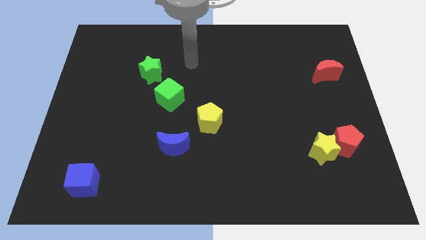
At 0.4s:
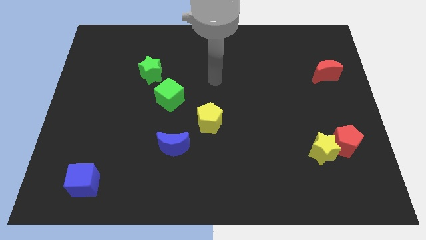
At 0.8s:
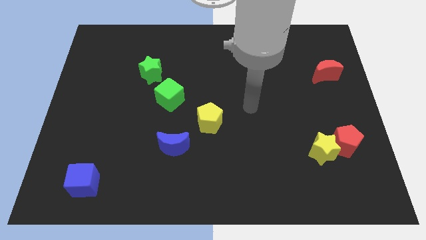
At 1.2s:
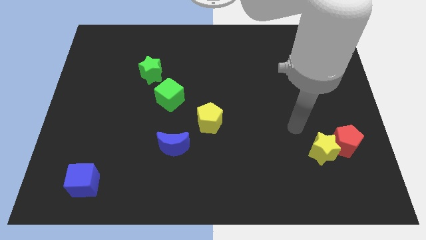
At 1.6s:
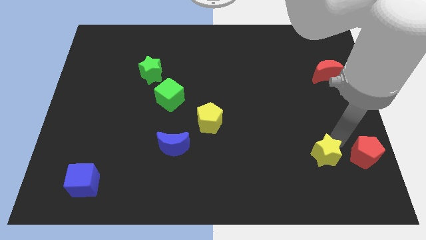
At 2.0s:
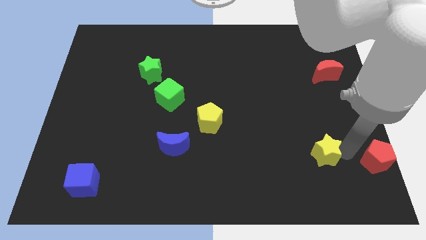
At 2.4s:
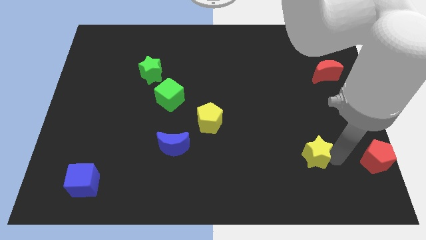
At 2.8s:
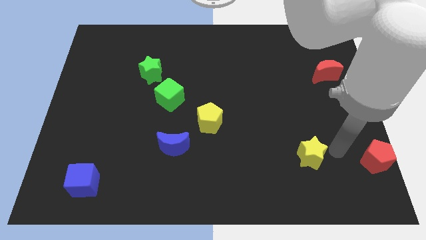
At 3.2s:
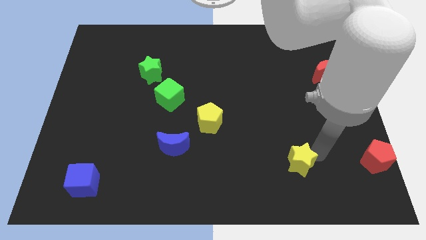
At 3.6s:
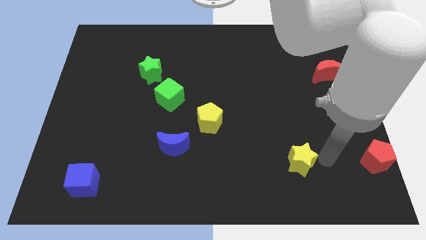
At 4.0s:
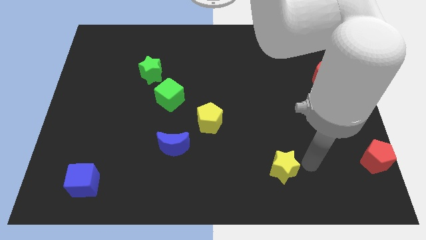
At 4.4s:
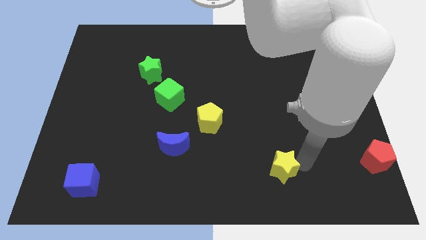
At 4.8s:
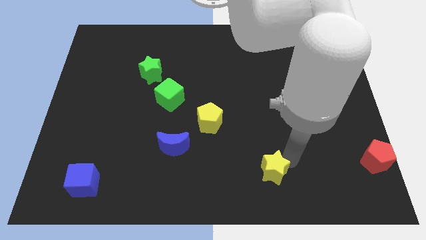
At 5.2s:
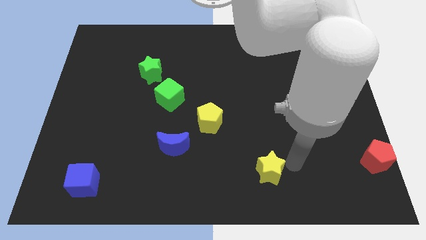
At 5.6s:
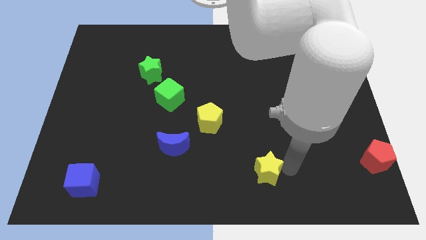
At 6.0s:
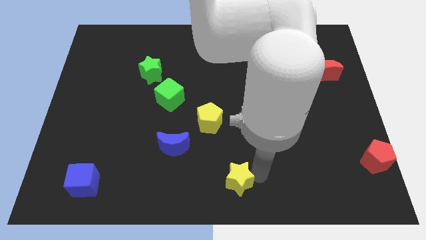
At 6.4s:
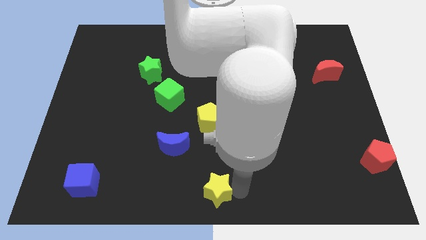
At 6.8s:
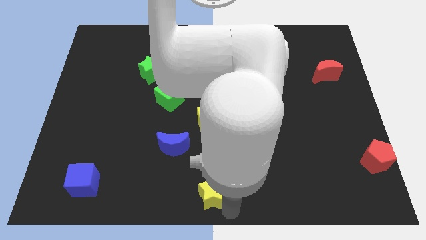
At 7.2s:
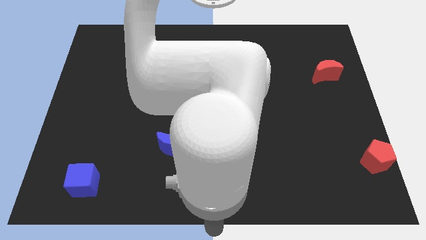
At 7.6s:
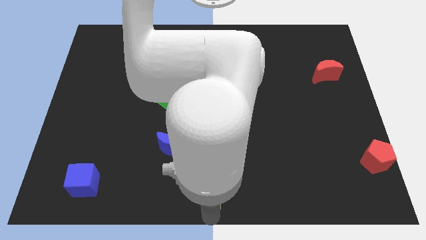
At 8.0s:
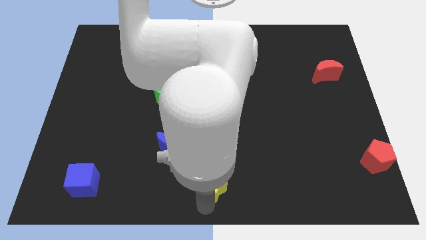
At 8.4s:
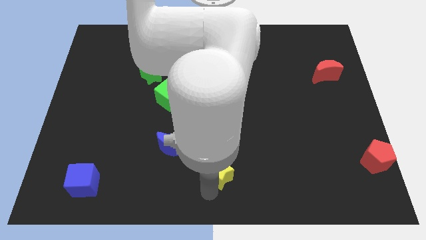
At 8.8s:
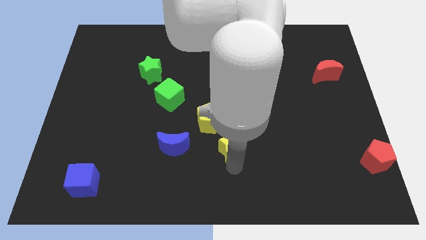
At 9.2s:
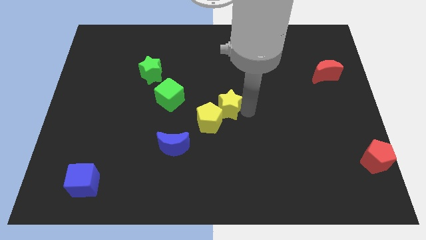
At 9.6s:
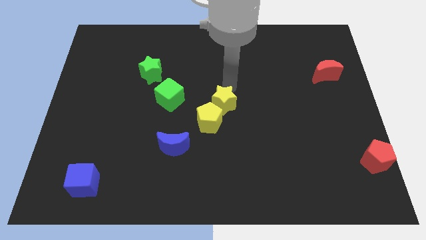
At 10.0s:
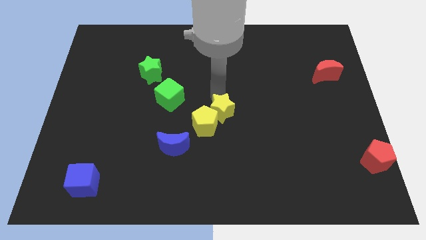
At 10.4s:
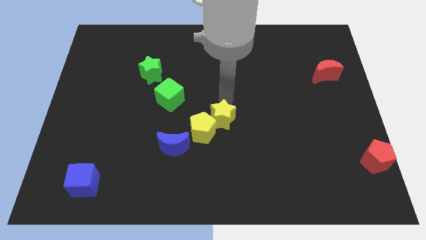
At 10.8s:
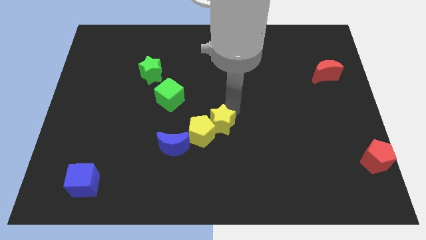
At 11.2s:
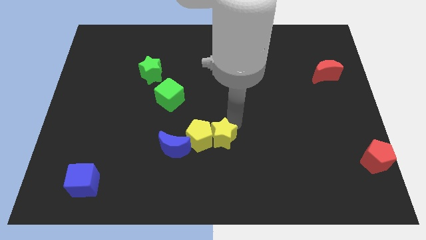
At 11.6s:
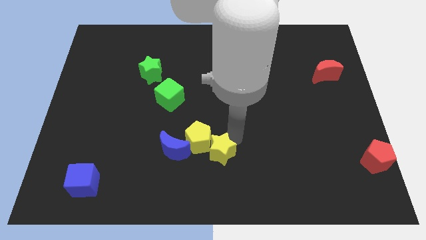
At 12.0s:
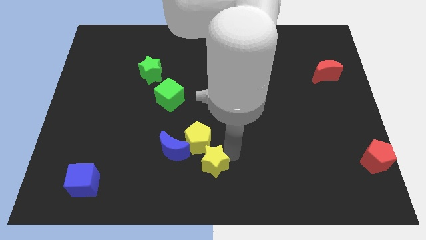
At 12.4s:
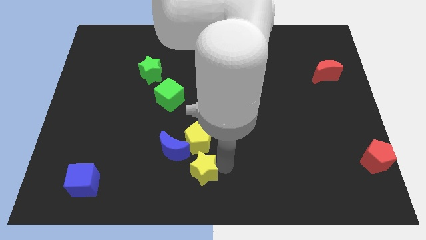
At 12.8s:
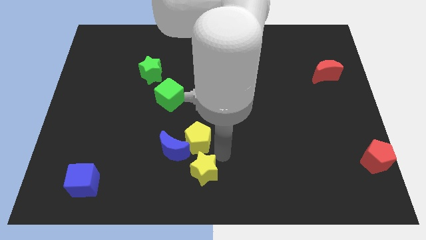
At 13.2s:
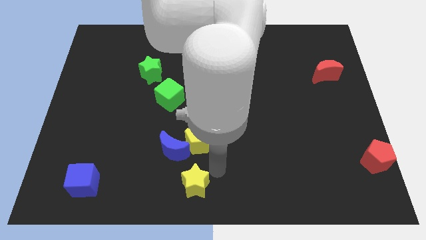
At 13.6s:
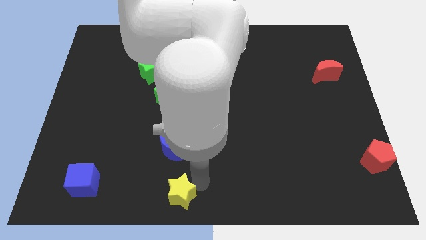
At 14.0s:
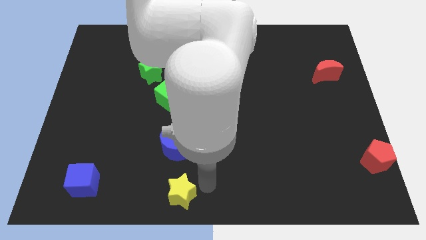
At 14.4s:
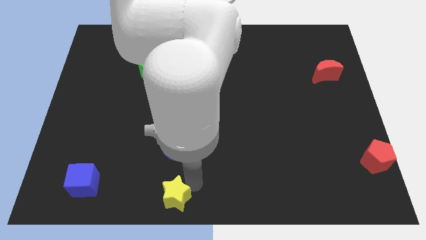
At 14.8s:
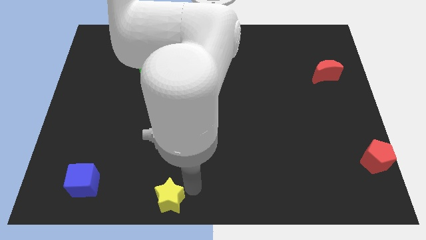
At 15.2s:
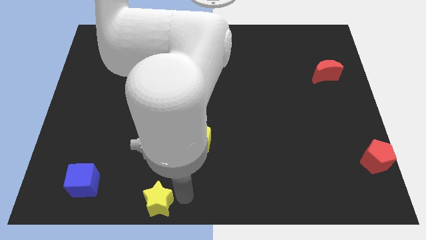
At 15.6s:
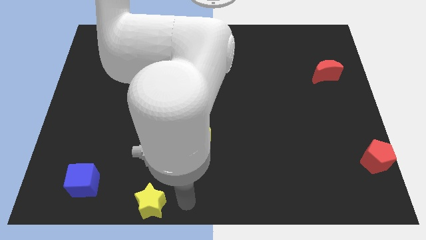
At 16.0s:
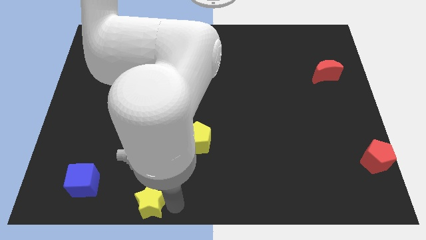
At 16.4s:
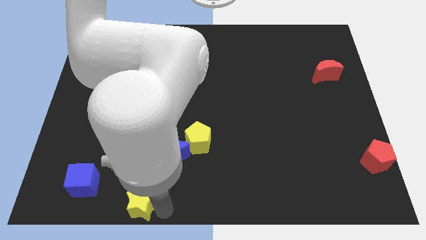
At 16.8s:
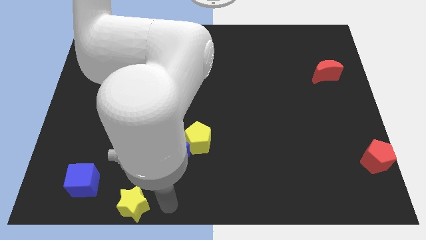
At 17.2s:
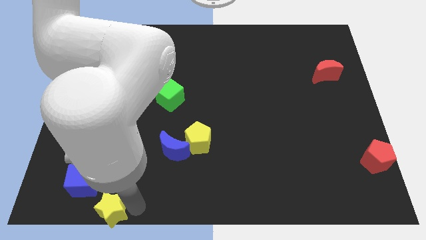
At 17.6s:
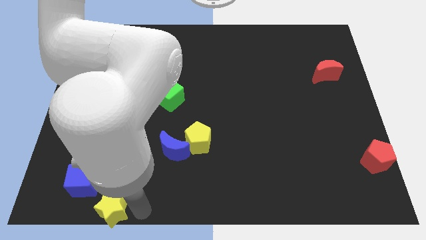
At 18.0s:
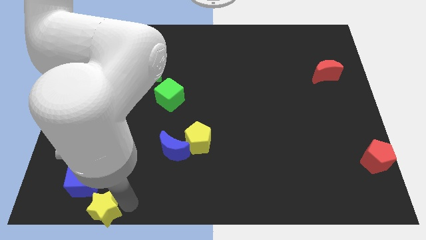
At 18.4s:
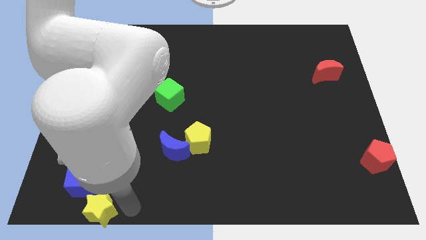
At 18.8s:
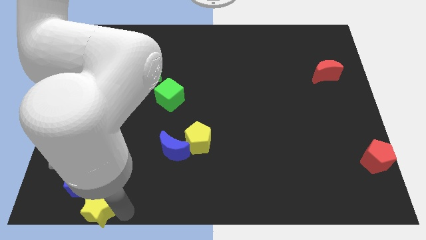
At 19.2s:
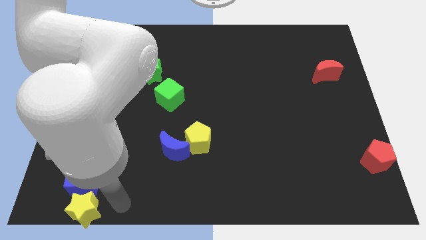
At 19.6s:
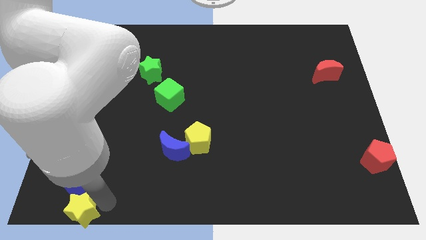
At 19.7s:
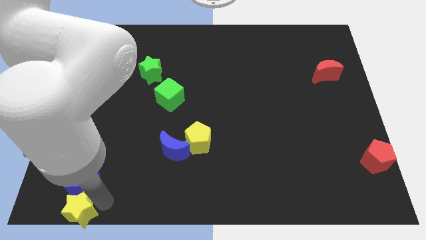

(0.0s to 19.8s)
put the yellow star to the lower left corner

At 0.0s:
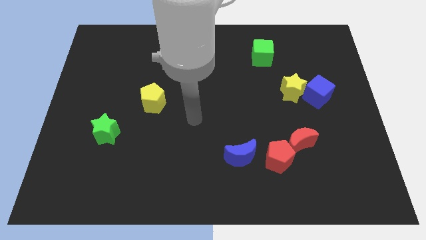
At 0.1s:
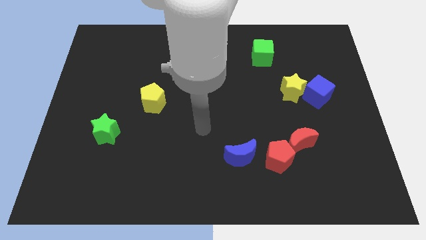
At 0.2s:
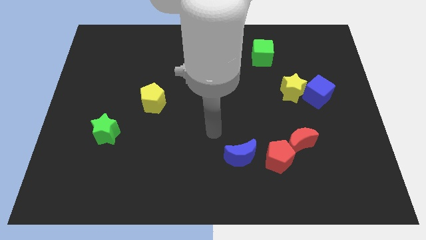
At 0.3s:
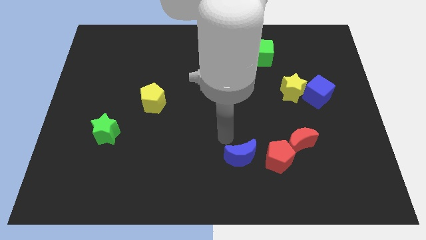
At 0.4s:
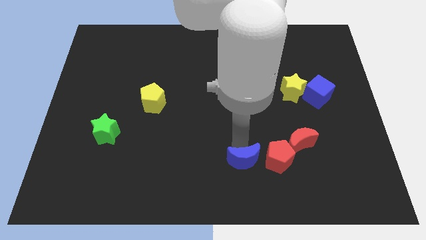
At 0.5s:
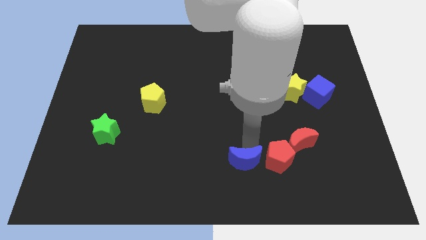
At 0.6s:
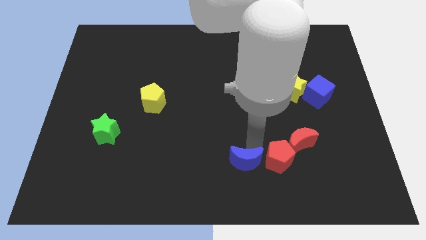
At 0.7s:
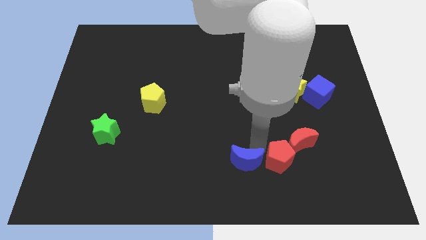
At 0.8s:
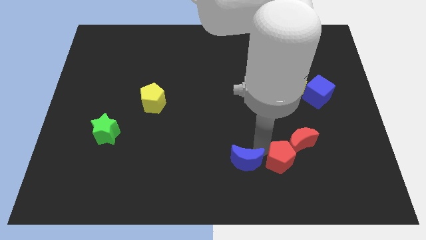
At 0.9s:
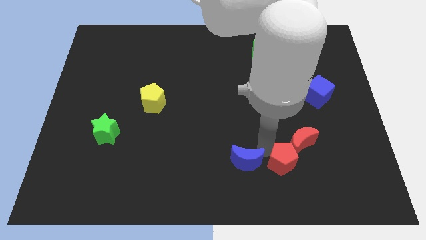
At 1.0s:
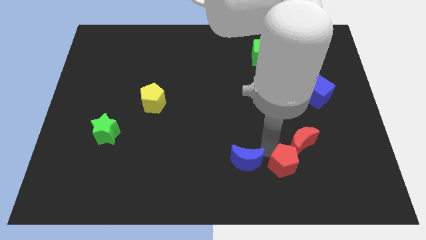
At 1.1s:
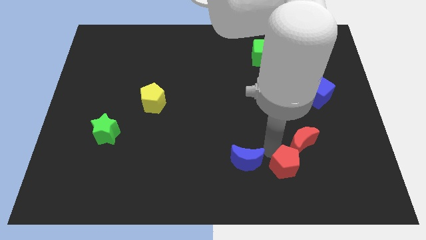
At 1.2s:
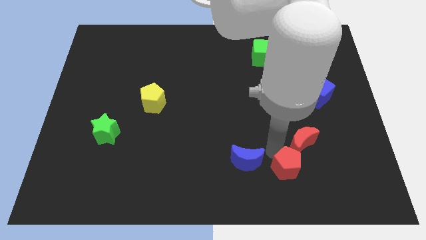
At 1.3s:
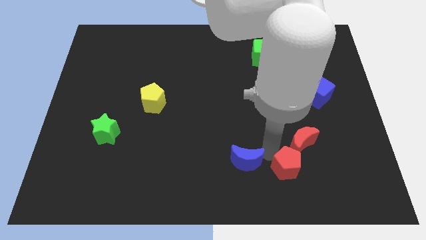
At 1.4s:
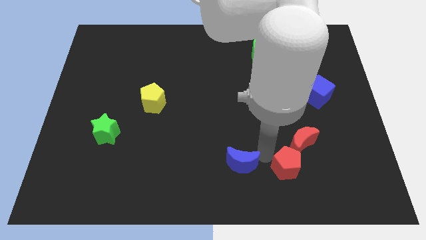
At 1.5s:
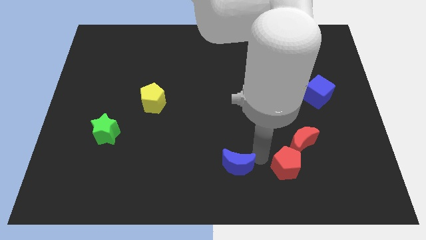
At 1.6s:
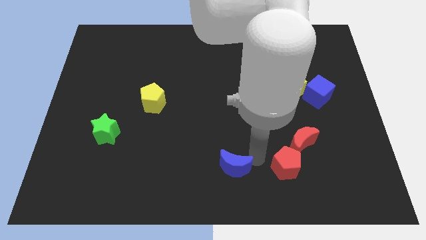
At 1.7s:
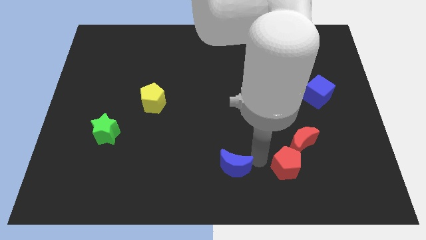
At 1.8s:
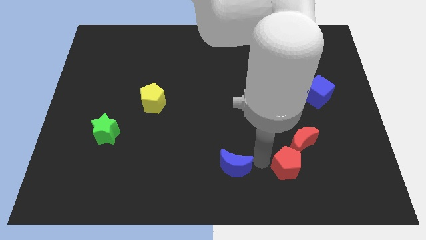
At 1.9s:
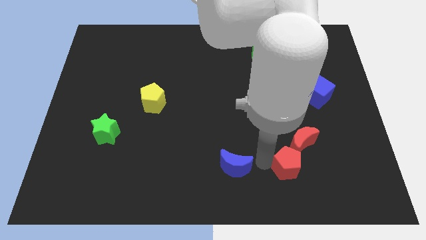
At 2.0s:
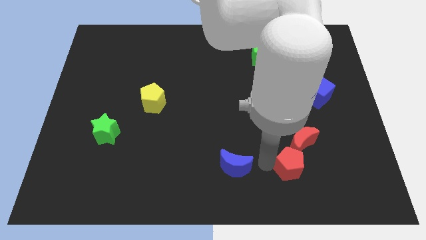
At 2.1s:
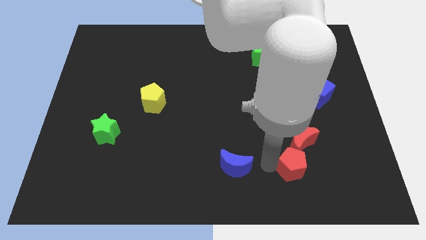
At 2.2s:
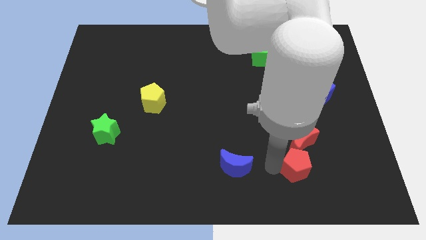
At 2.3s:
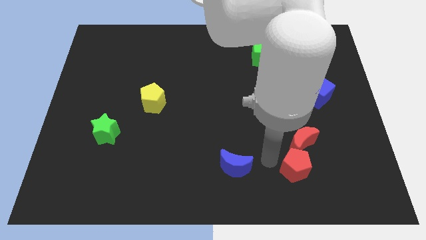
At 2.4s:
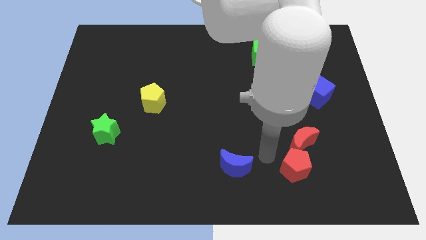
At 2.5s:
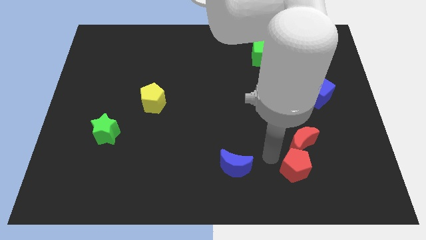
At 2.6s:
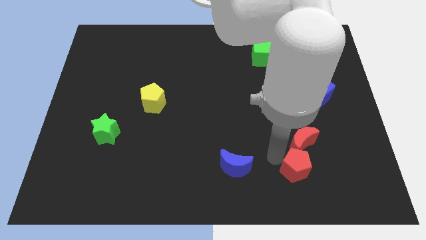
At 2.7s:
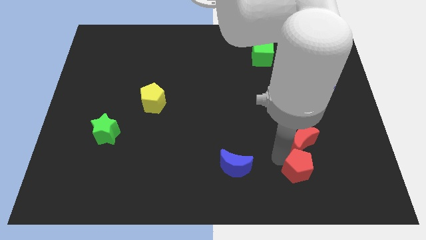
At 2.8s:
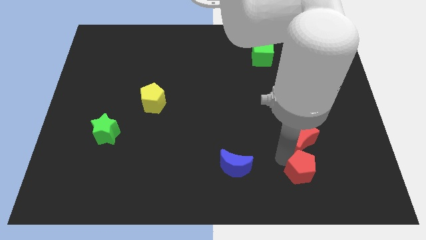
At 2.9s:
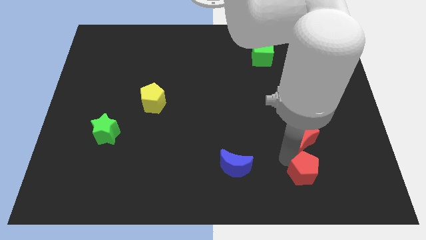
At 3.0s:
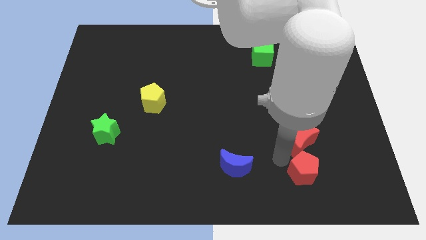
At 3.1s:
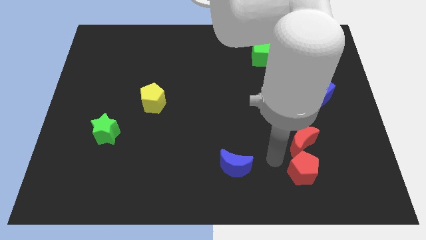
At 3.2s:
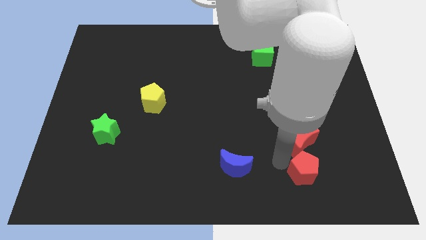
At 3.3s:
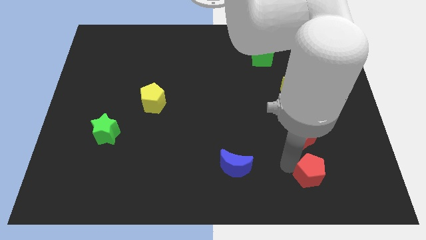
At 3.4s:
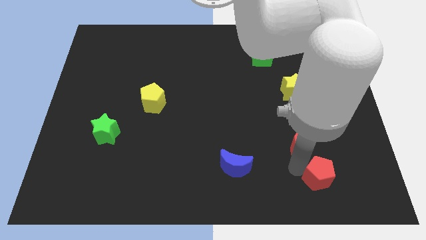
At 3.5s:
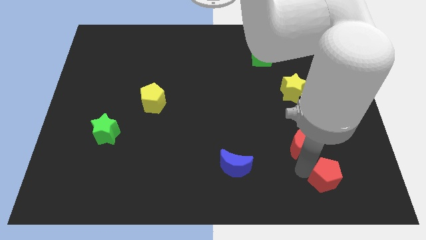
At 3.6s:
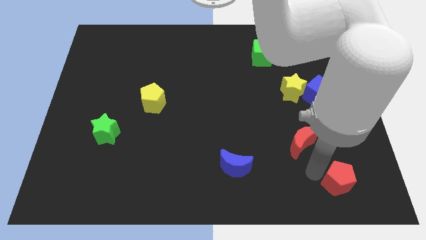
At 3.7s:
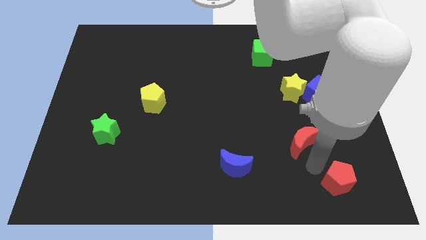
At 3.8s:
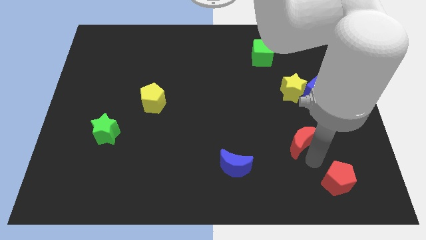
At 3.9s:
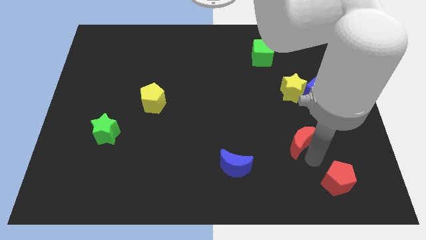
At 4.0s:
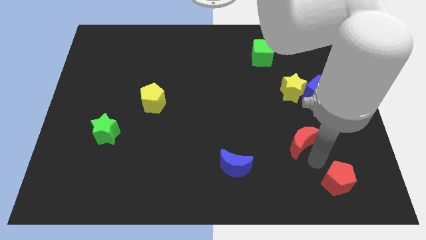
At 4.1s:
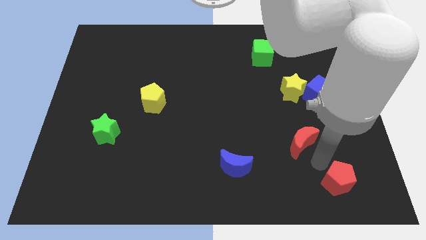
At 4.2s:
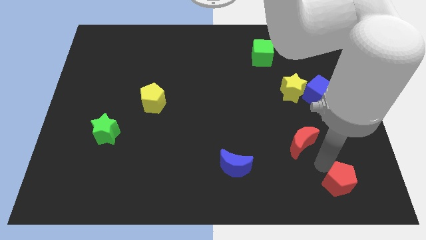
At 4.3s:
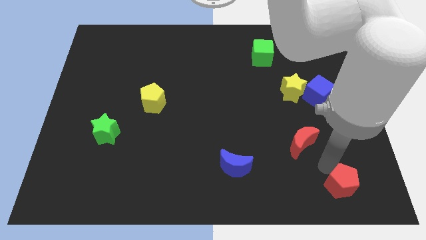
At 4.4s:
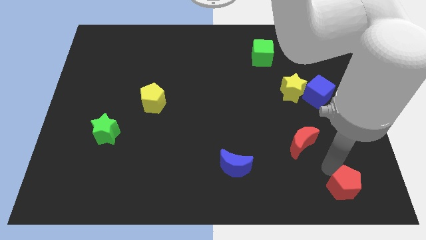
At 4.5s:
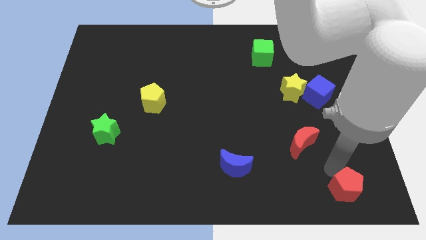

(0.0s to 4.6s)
move the red pentagon to the bottom right
